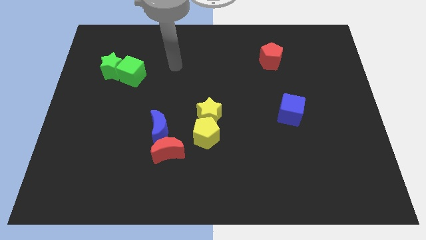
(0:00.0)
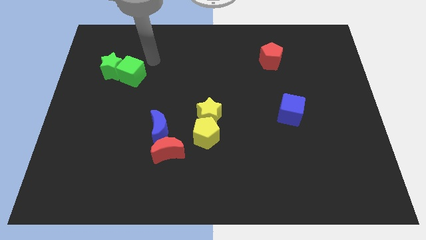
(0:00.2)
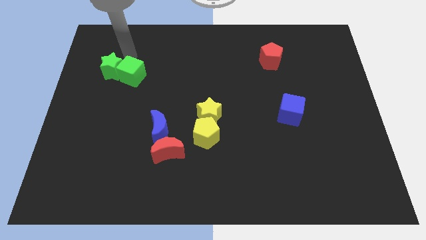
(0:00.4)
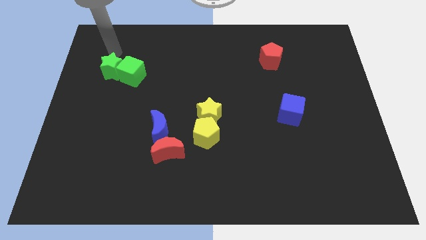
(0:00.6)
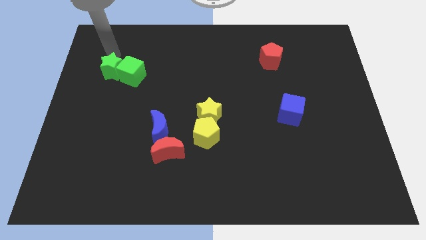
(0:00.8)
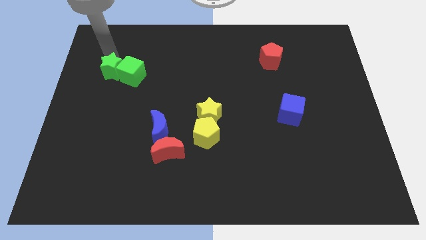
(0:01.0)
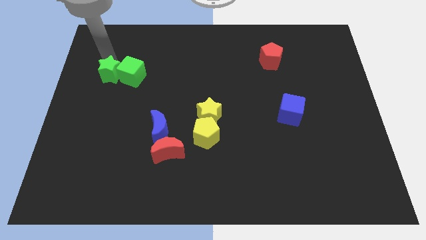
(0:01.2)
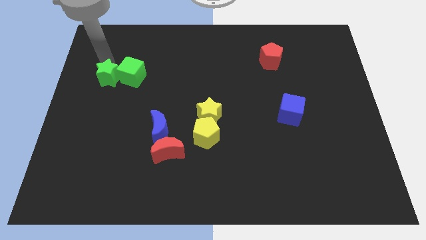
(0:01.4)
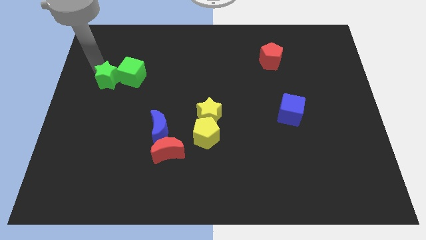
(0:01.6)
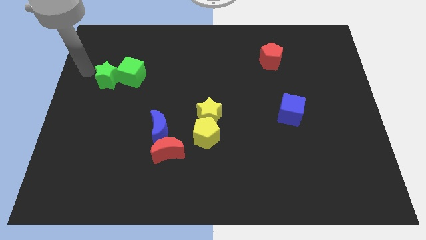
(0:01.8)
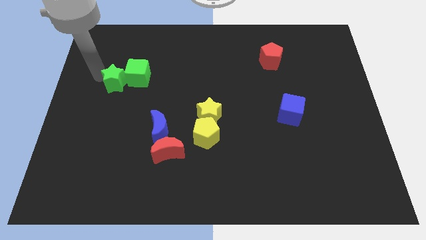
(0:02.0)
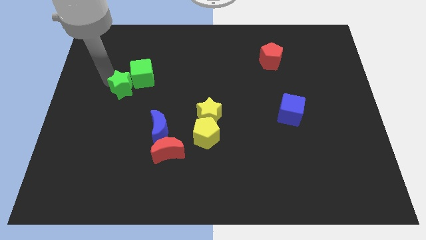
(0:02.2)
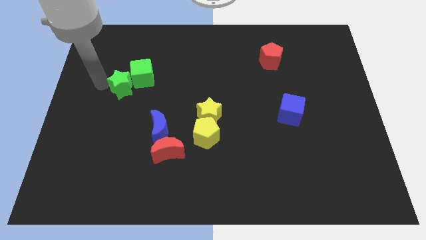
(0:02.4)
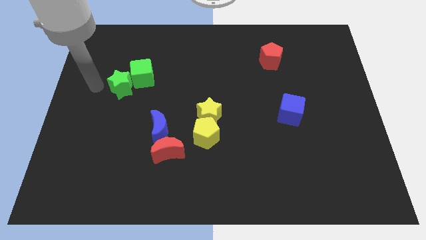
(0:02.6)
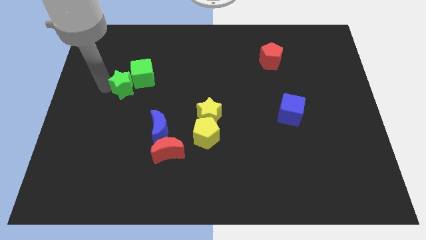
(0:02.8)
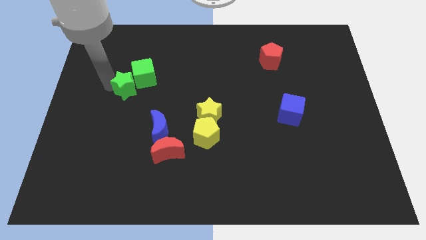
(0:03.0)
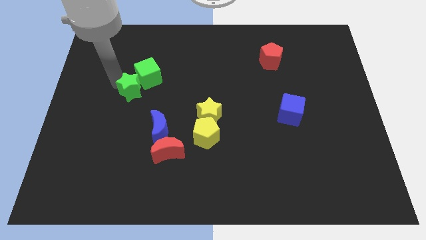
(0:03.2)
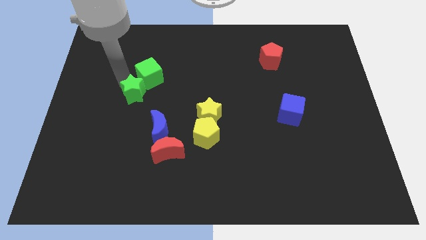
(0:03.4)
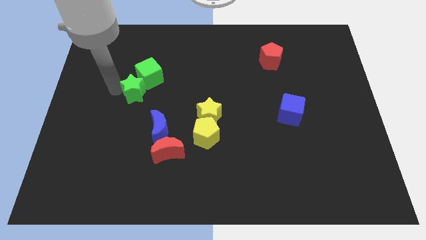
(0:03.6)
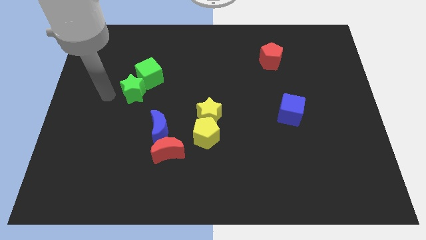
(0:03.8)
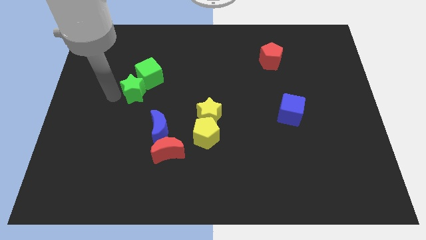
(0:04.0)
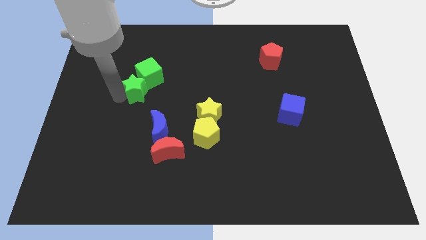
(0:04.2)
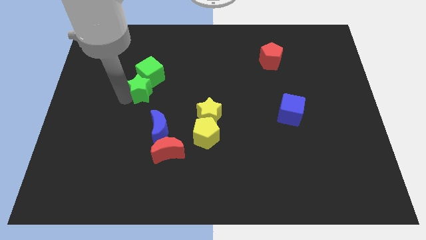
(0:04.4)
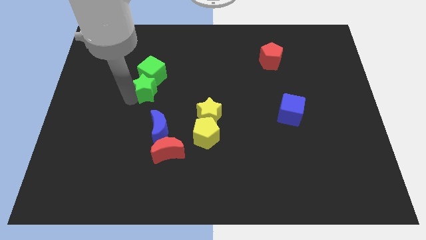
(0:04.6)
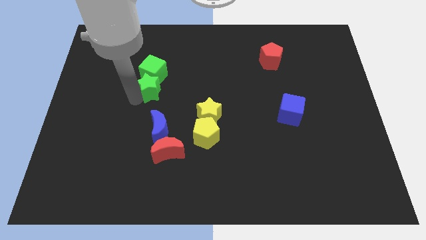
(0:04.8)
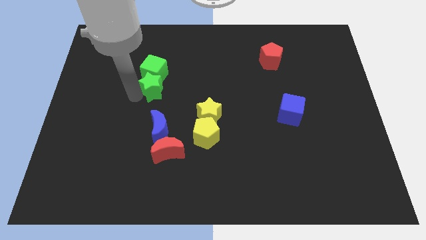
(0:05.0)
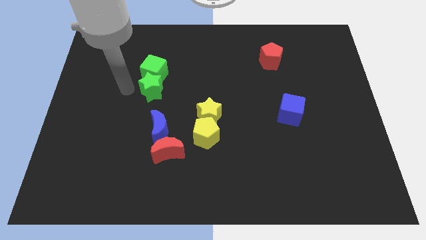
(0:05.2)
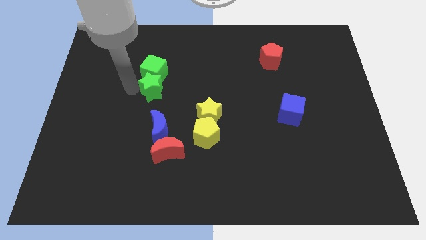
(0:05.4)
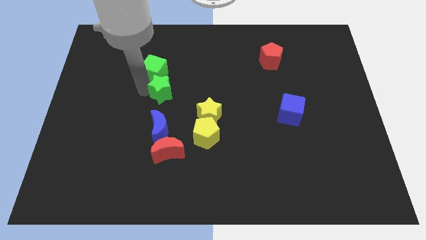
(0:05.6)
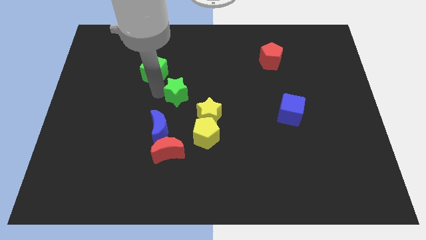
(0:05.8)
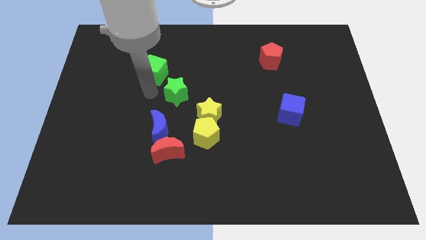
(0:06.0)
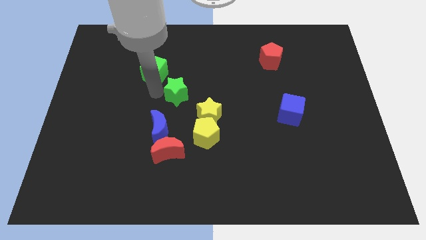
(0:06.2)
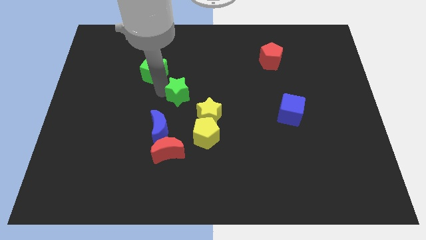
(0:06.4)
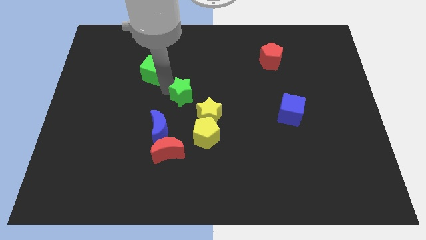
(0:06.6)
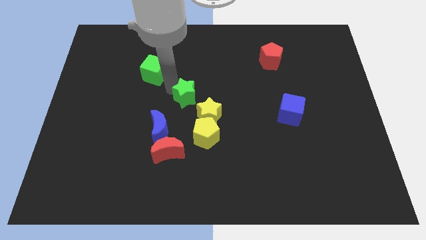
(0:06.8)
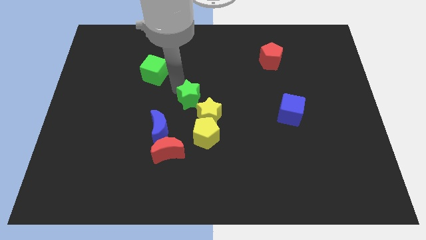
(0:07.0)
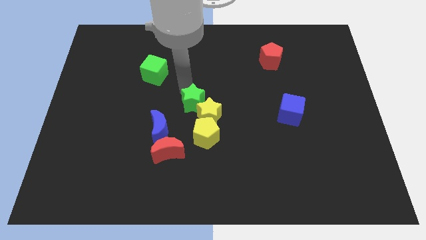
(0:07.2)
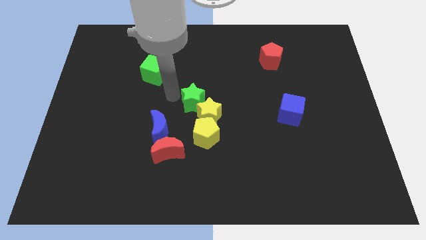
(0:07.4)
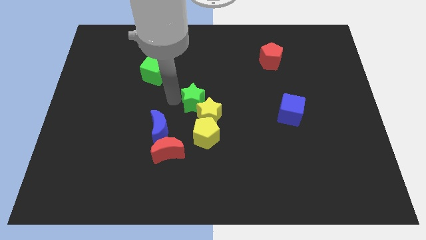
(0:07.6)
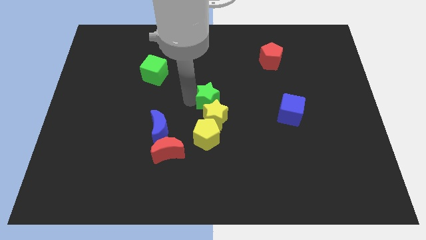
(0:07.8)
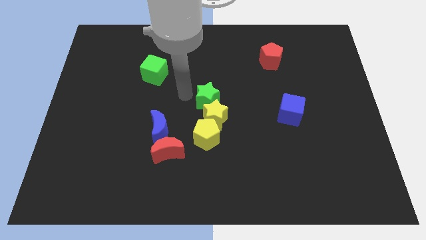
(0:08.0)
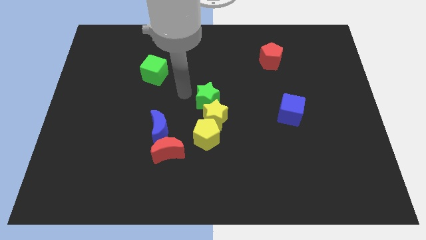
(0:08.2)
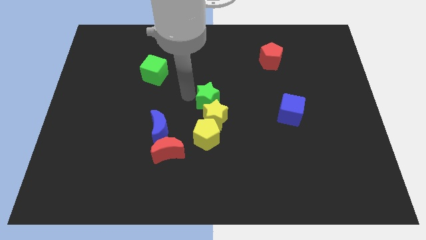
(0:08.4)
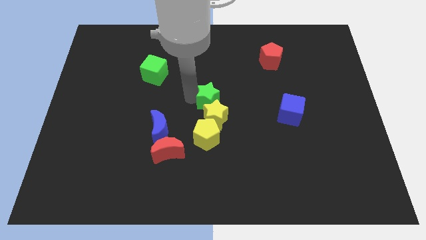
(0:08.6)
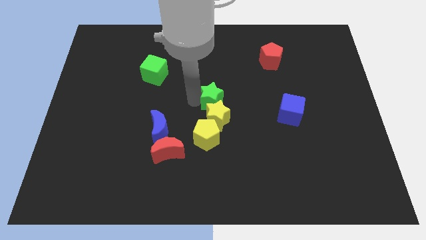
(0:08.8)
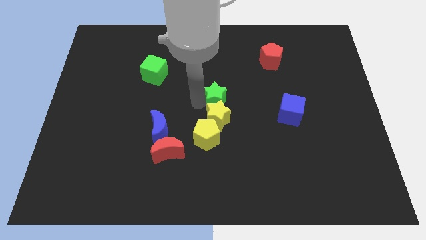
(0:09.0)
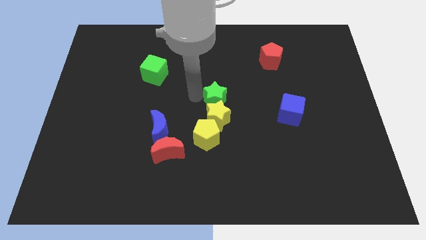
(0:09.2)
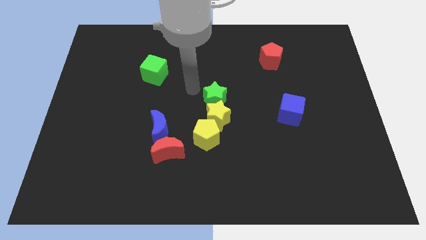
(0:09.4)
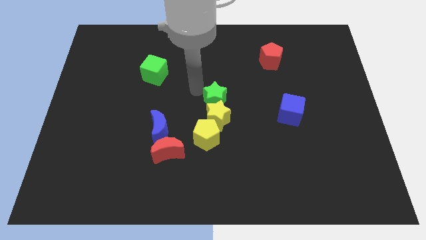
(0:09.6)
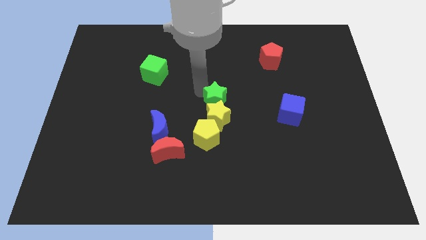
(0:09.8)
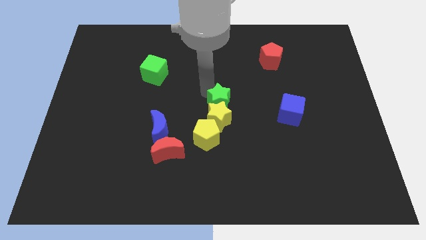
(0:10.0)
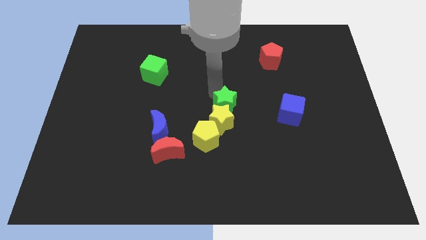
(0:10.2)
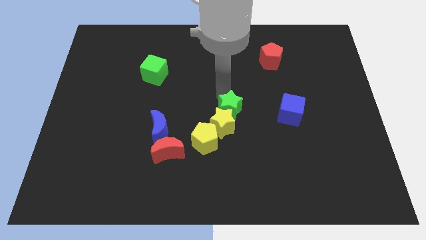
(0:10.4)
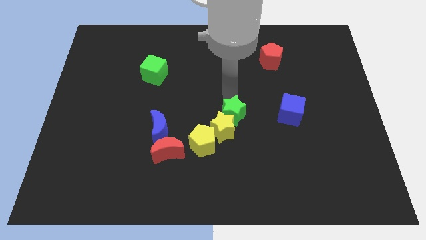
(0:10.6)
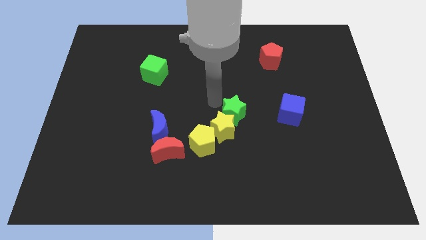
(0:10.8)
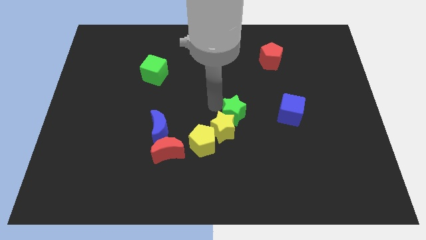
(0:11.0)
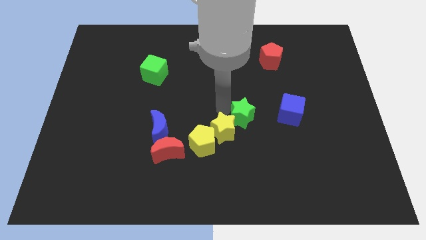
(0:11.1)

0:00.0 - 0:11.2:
move the green star to the right side of the yellow star

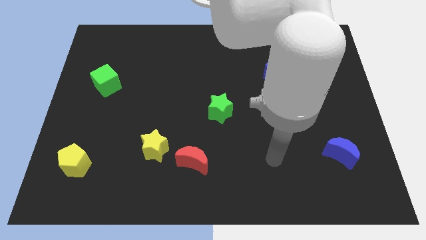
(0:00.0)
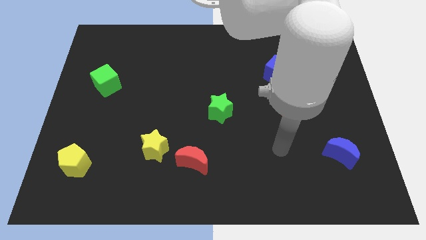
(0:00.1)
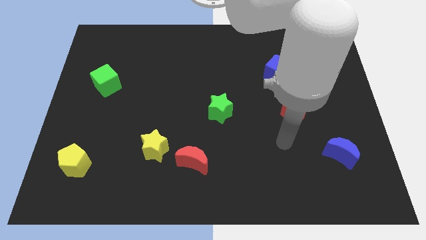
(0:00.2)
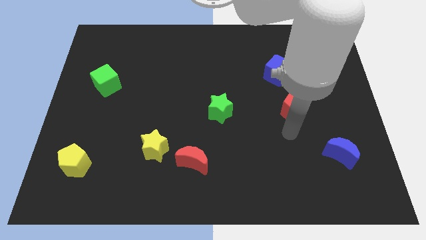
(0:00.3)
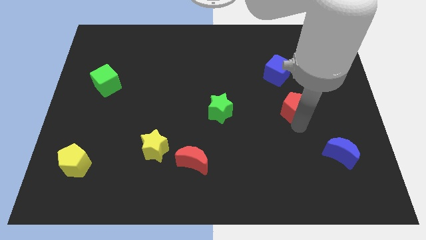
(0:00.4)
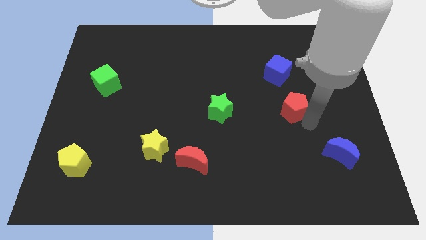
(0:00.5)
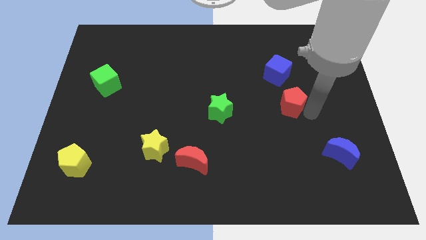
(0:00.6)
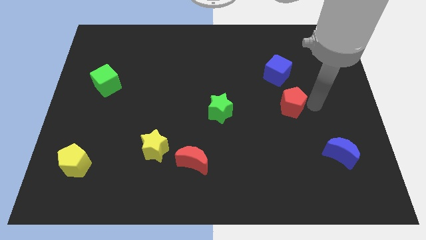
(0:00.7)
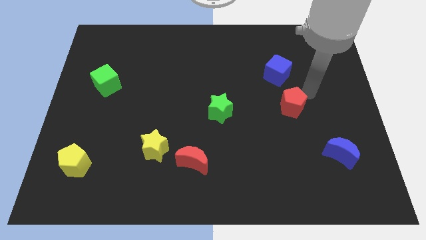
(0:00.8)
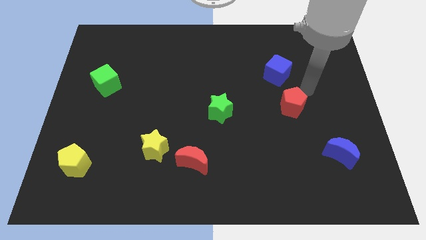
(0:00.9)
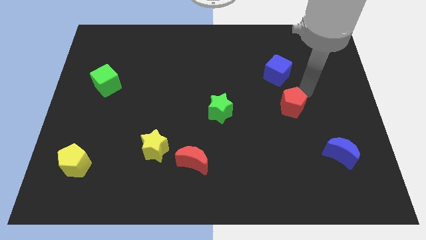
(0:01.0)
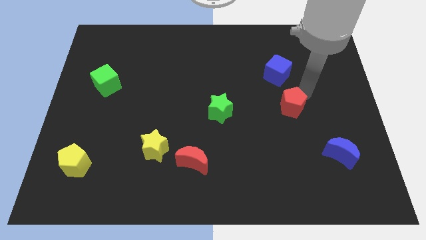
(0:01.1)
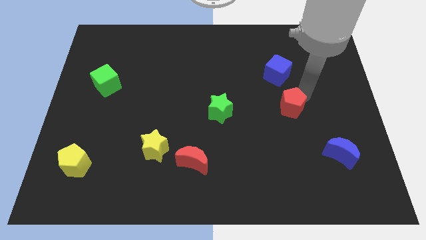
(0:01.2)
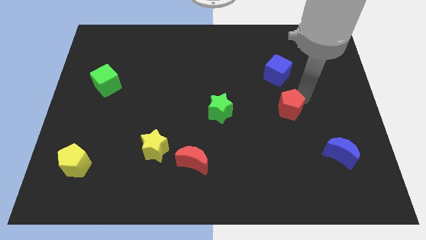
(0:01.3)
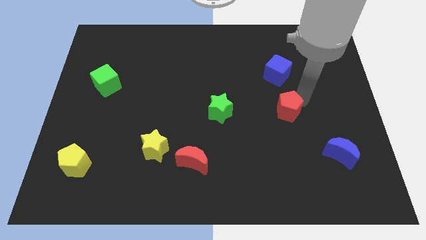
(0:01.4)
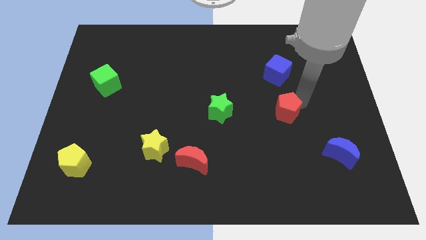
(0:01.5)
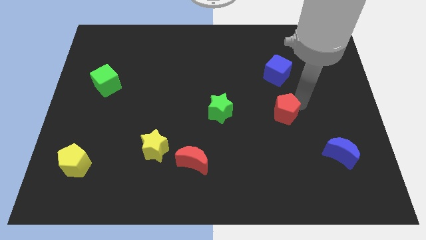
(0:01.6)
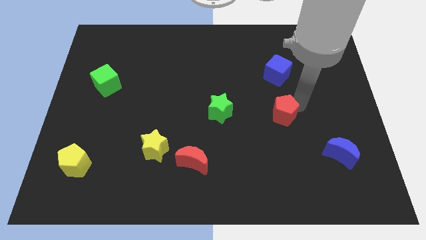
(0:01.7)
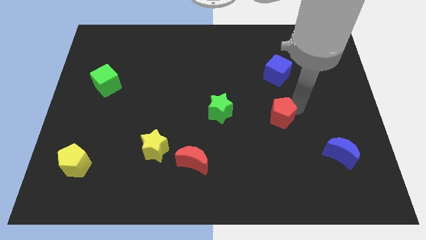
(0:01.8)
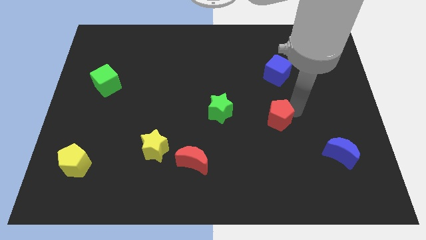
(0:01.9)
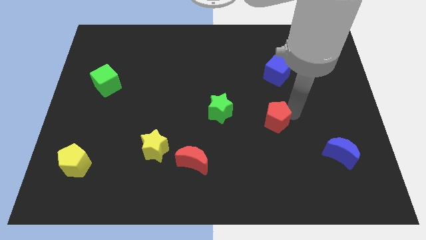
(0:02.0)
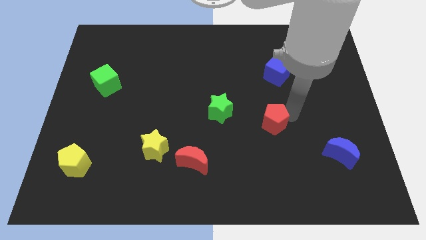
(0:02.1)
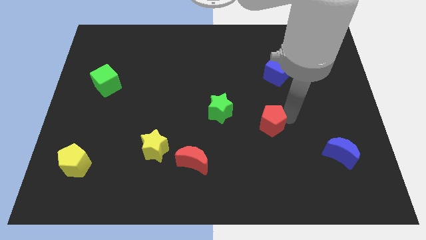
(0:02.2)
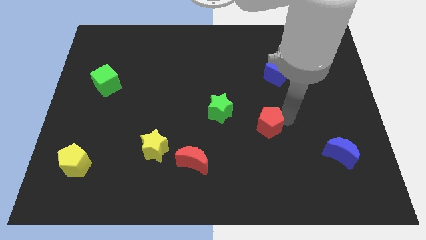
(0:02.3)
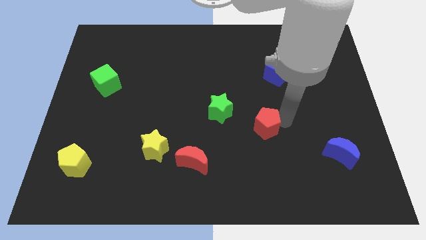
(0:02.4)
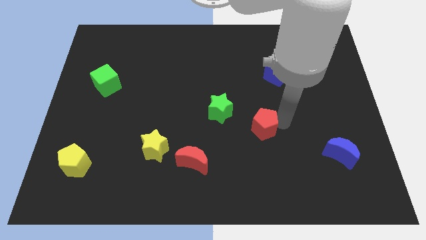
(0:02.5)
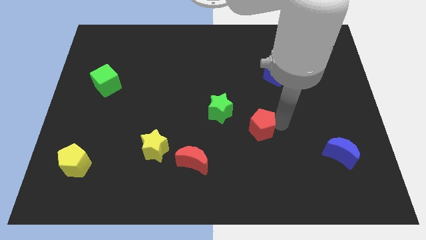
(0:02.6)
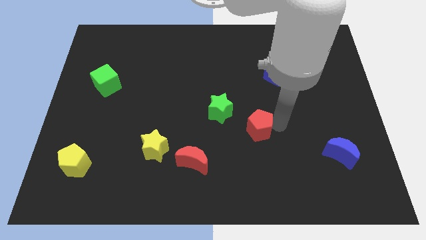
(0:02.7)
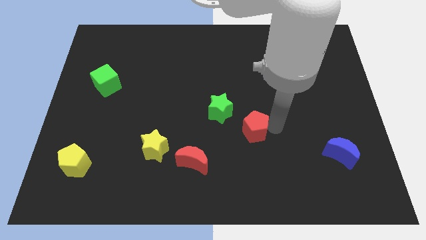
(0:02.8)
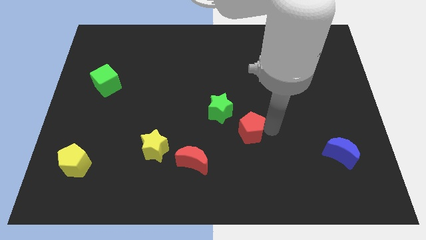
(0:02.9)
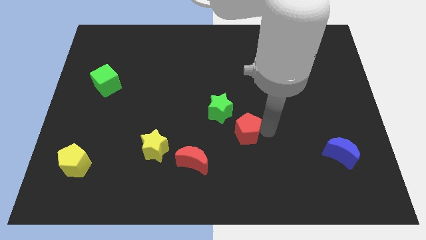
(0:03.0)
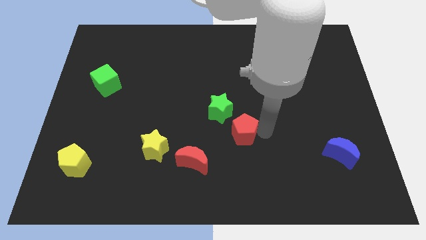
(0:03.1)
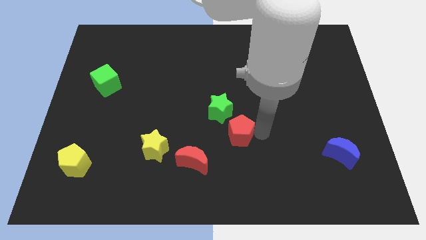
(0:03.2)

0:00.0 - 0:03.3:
slide the red pentagon to the bottom side of the green star
